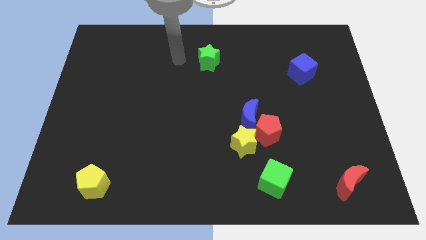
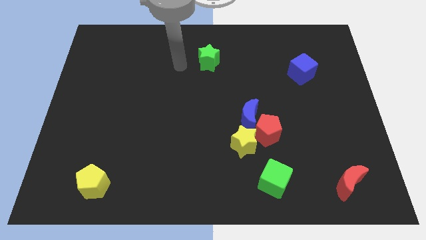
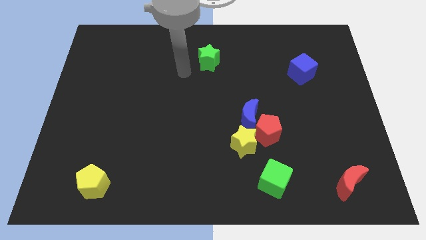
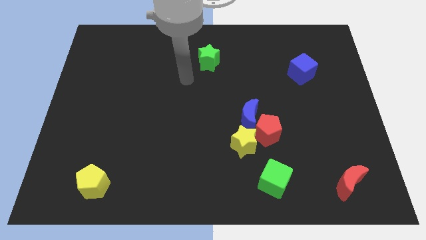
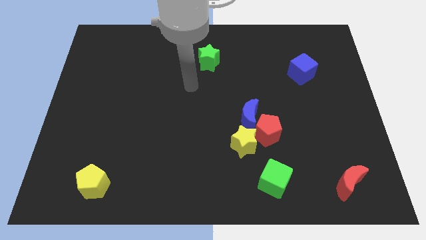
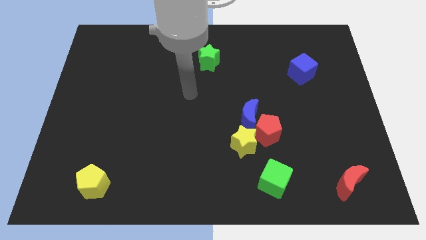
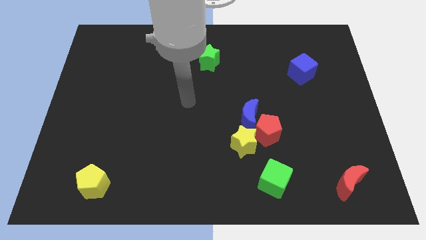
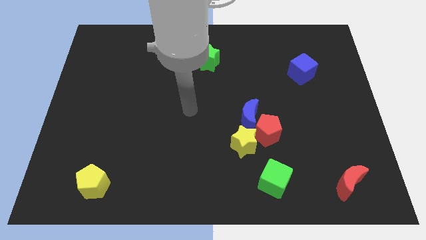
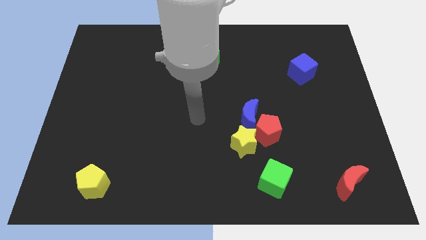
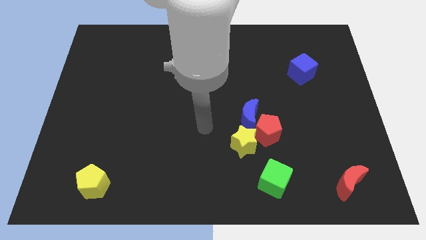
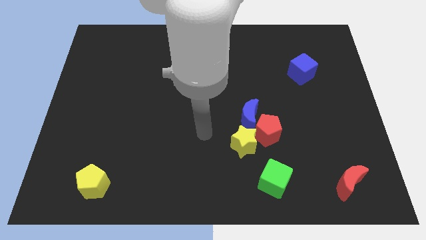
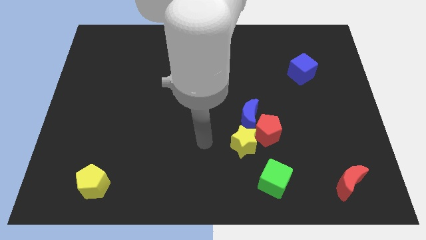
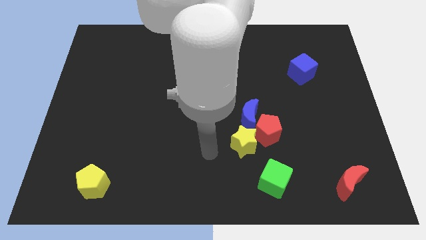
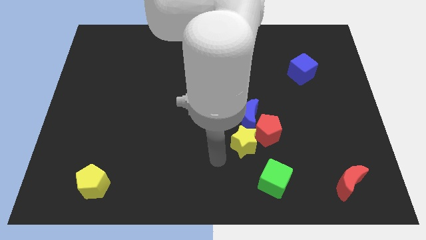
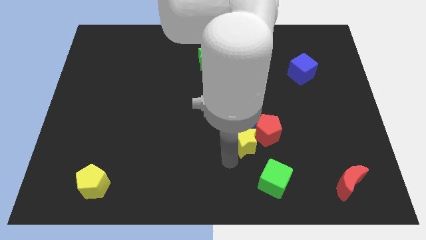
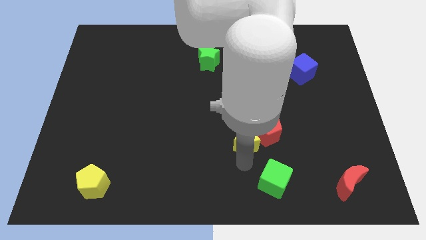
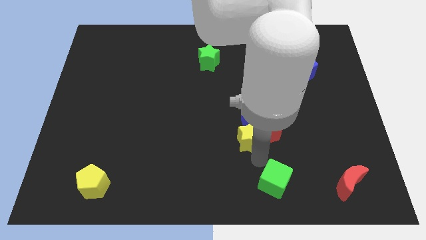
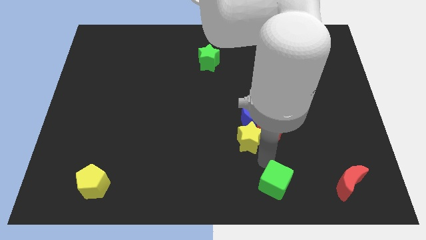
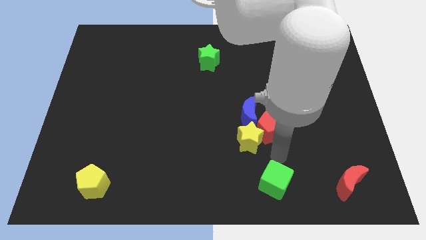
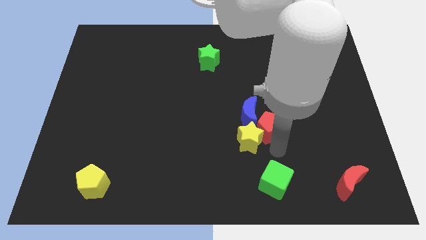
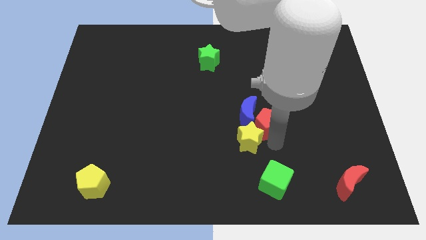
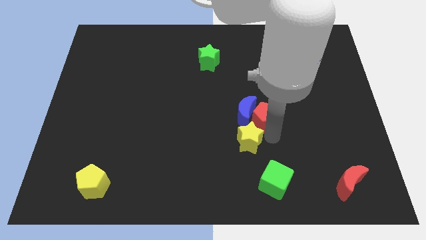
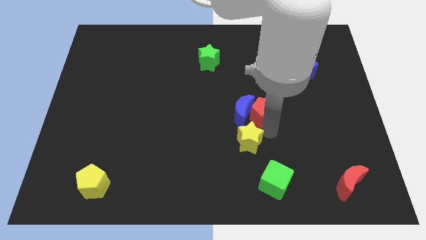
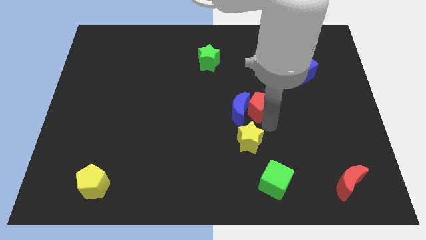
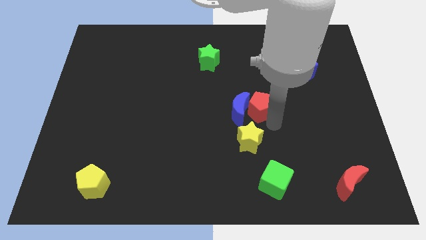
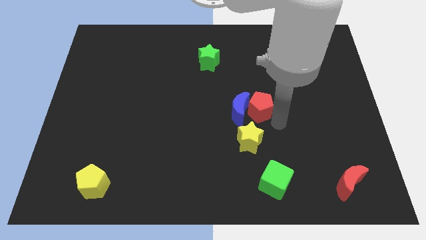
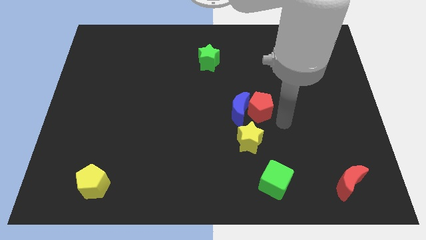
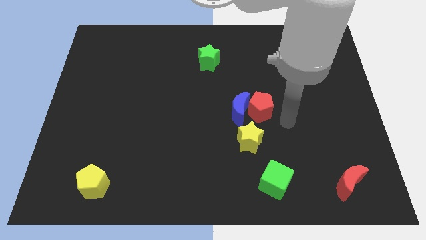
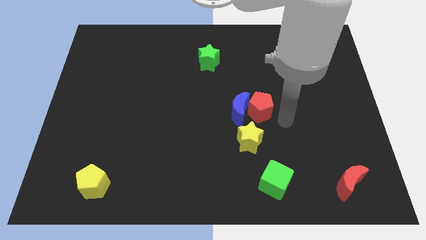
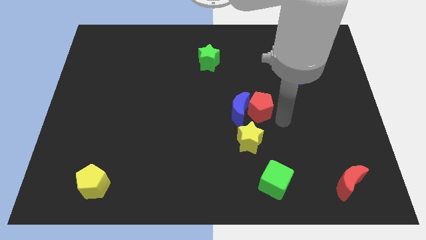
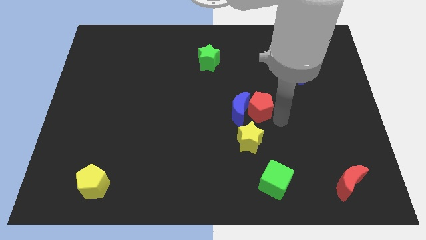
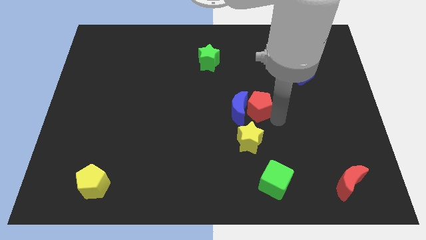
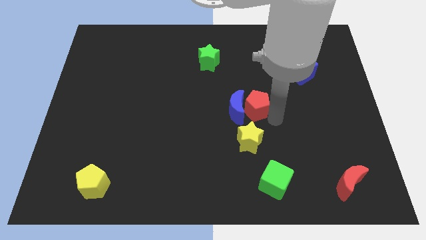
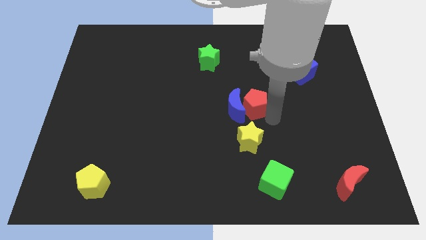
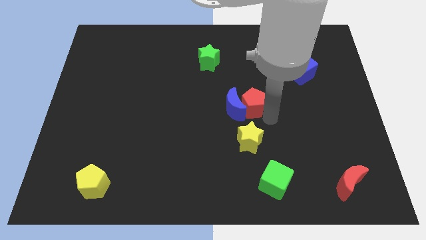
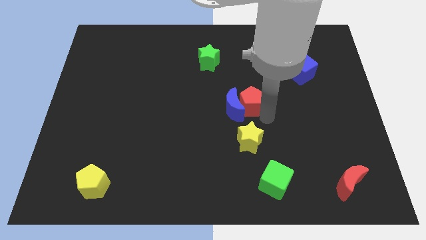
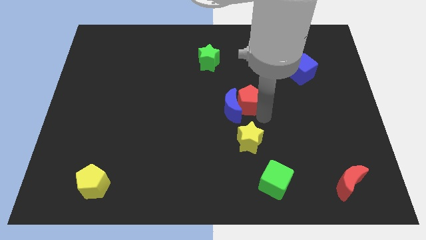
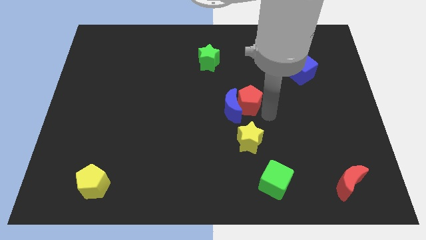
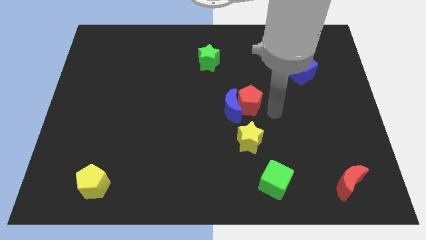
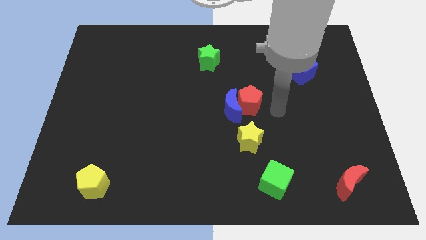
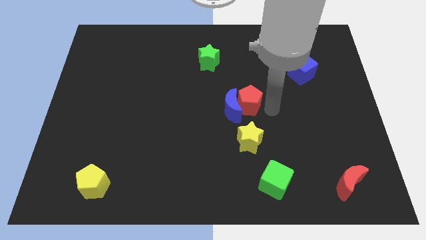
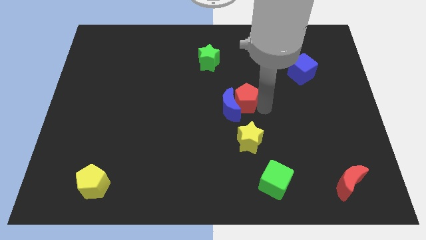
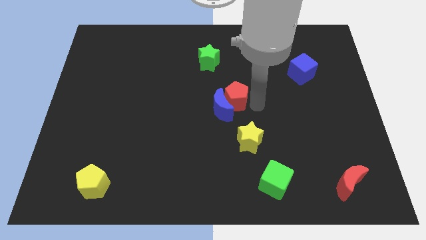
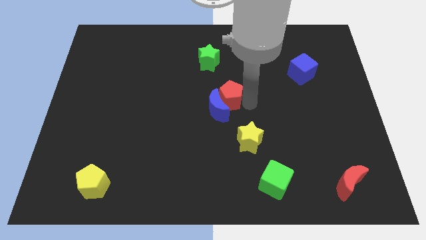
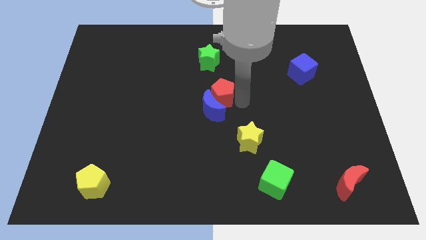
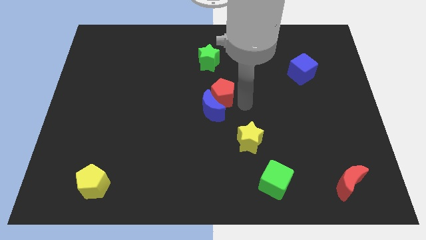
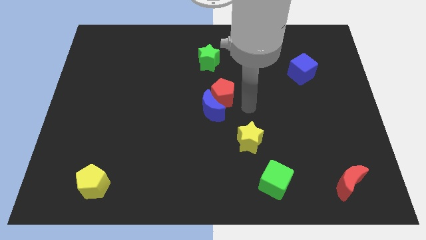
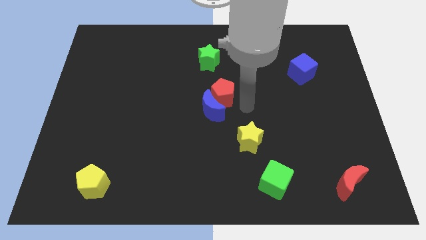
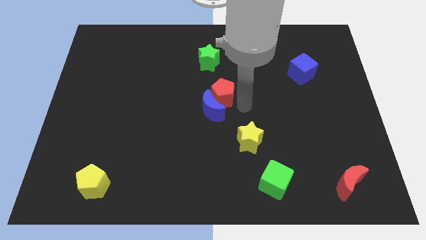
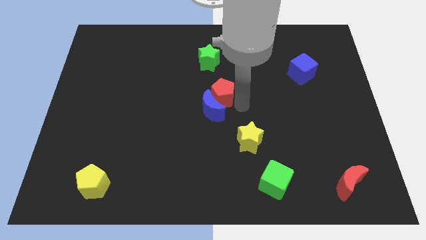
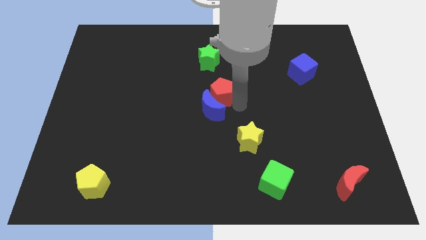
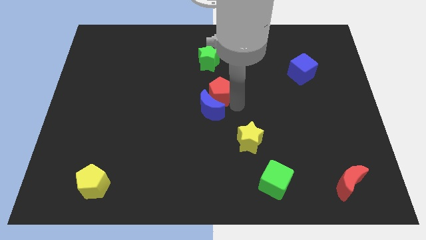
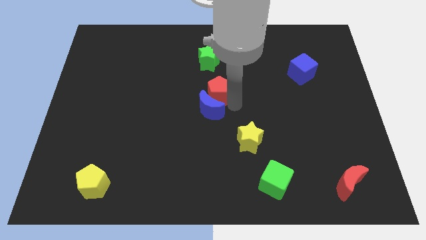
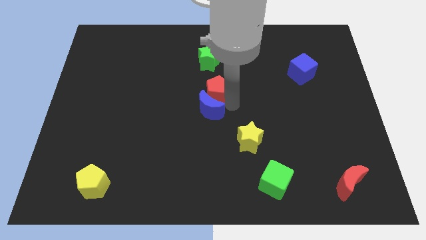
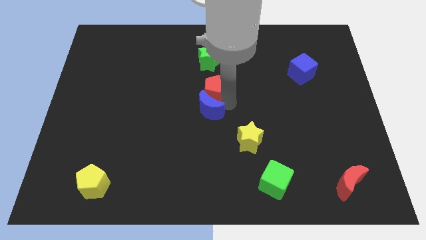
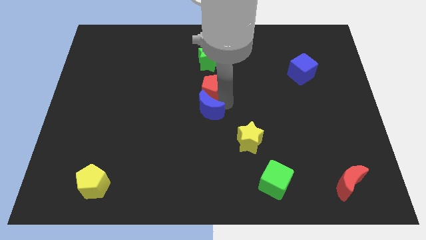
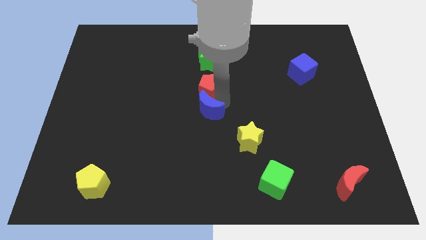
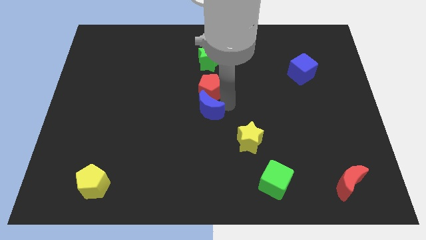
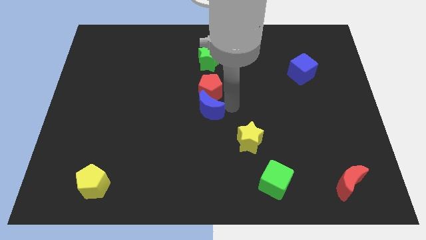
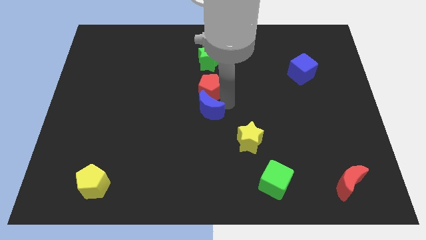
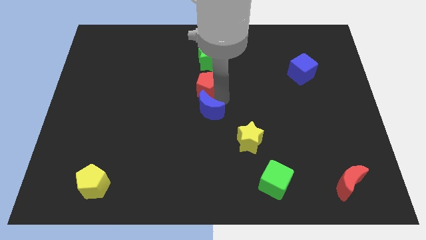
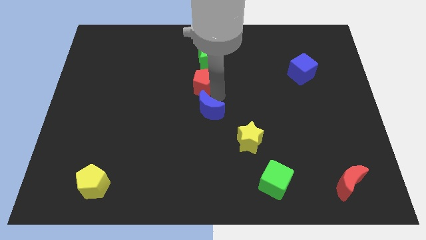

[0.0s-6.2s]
slide the red pentagon diagonally up and left

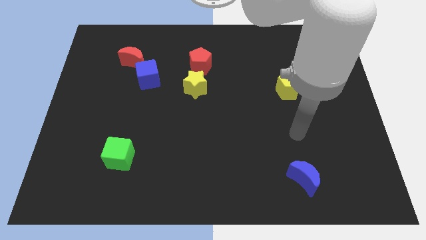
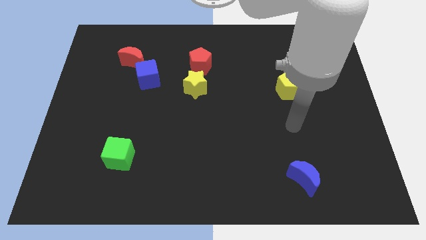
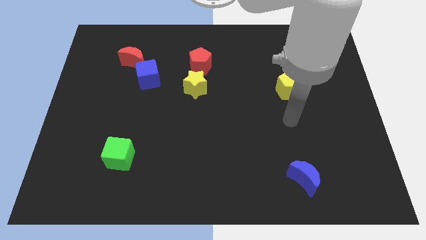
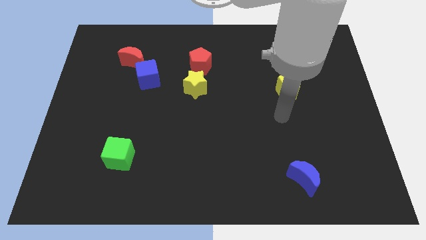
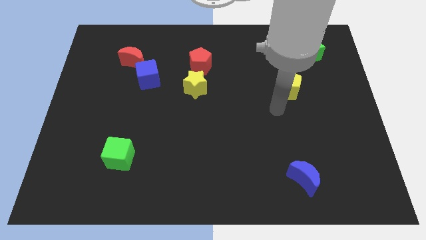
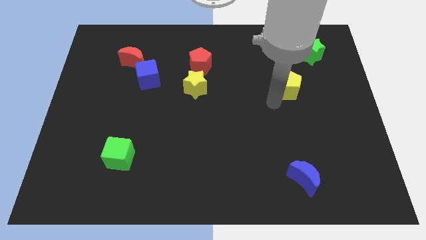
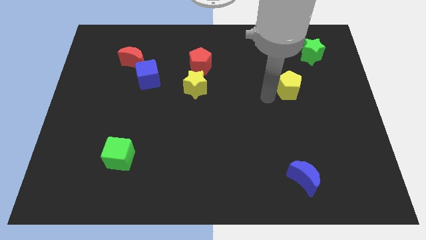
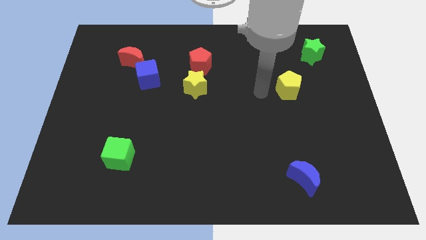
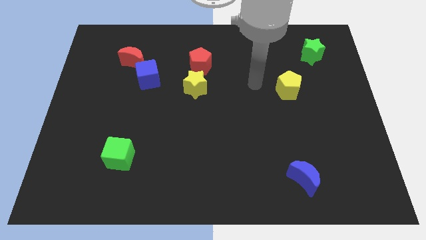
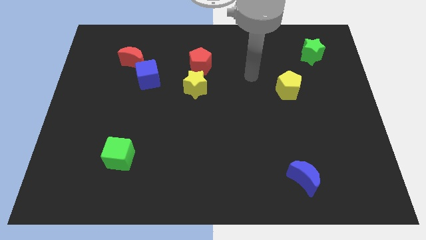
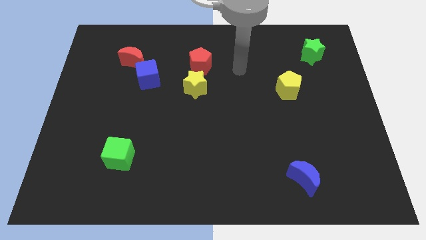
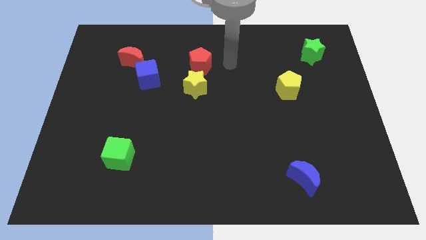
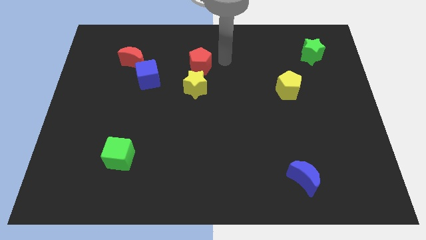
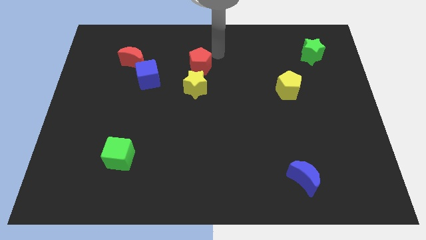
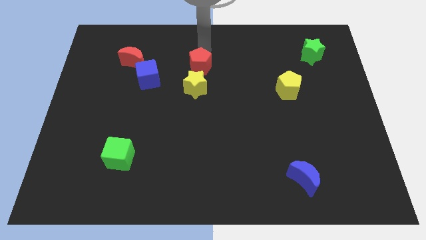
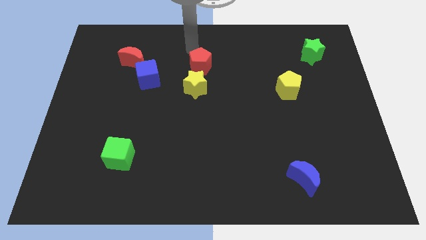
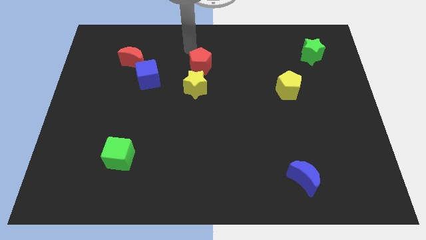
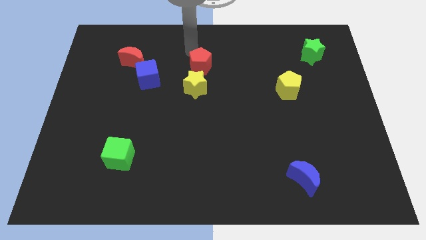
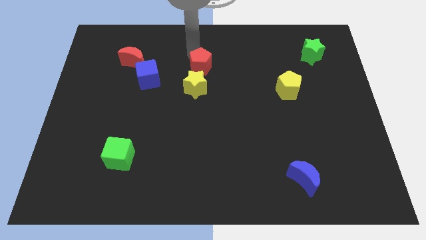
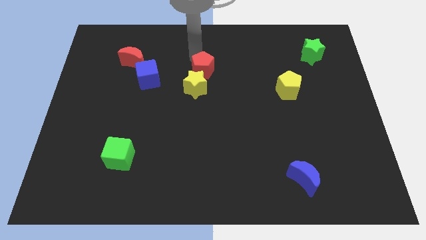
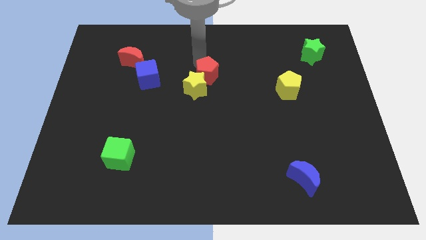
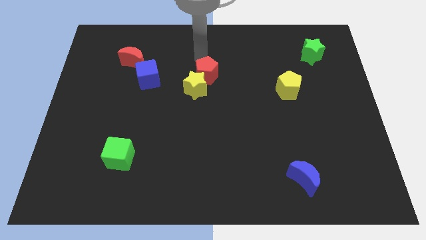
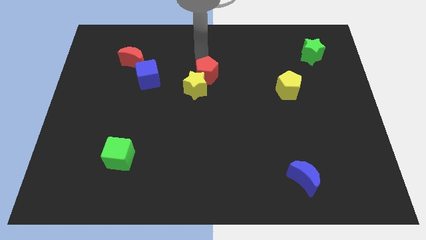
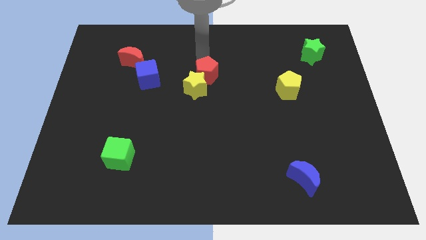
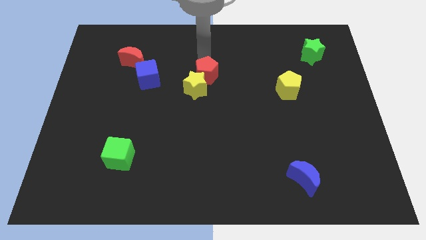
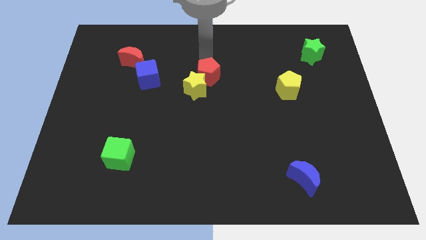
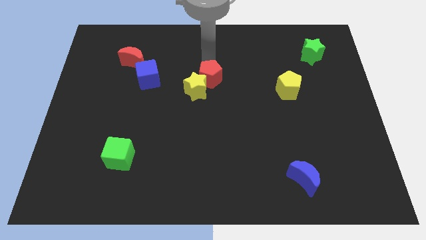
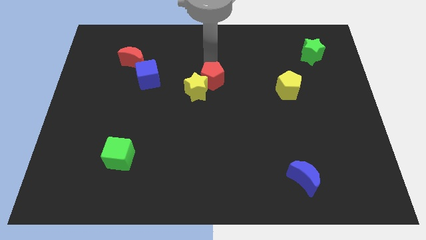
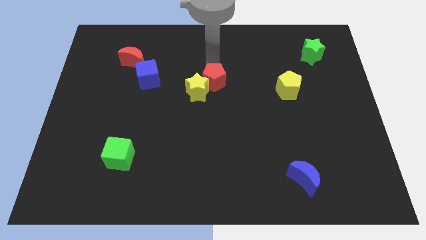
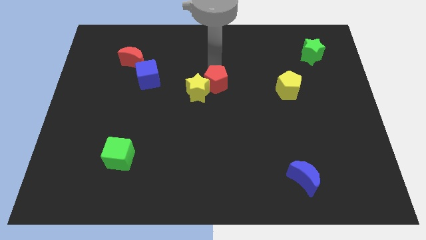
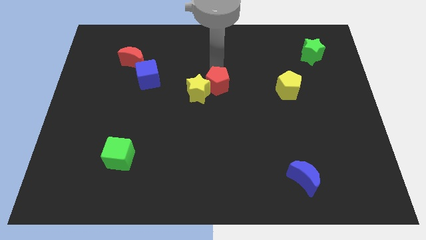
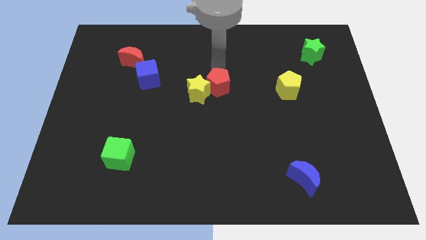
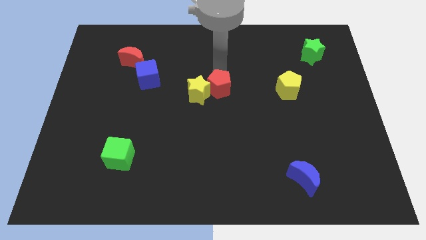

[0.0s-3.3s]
slightly push the red pentagon down
